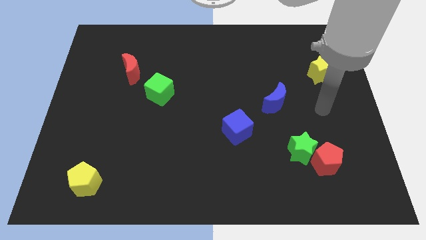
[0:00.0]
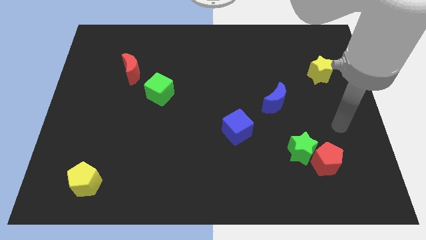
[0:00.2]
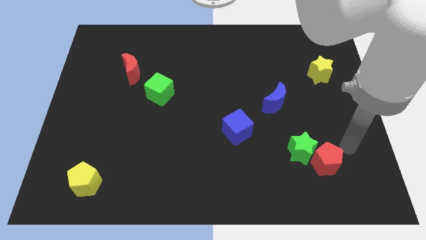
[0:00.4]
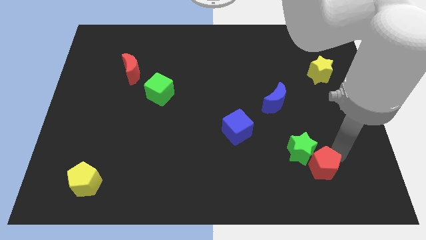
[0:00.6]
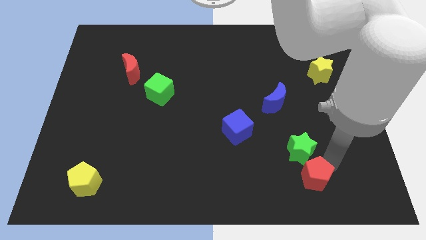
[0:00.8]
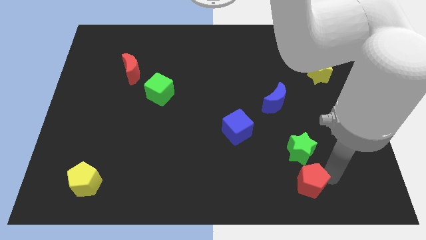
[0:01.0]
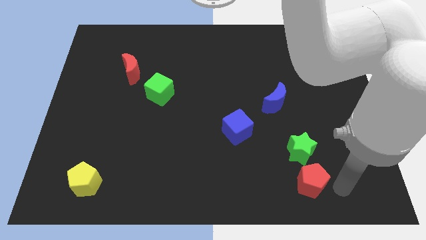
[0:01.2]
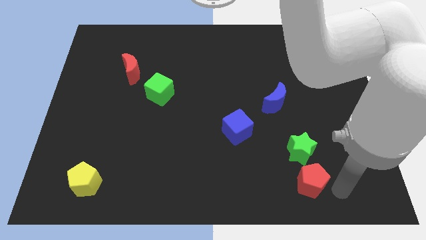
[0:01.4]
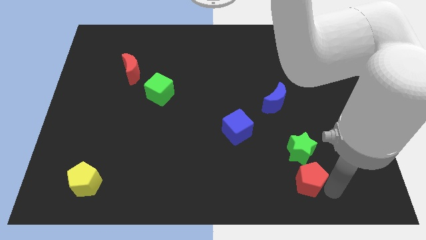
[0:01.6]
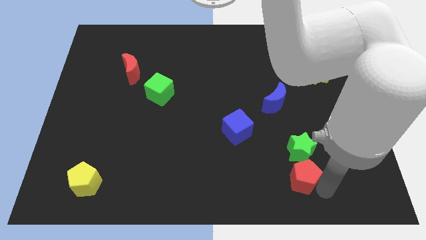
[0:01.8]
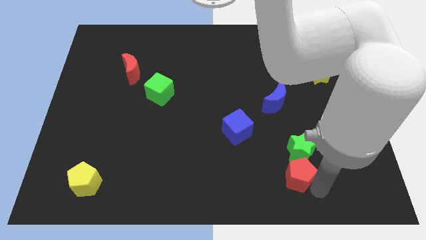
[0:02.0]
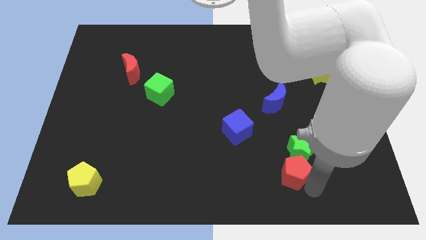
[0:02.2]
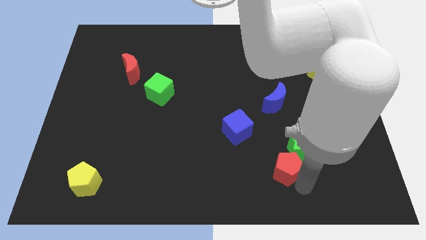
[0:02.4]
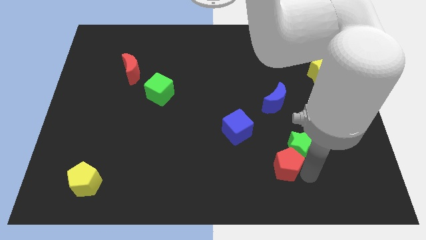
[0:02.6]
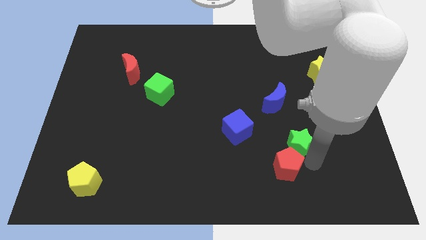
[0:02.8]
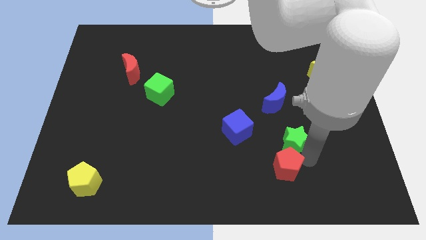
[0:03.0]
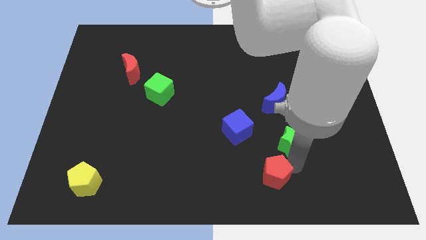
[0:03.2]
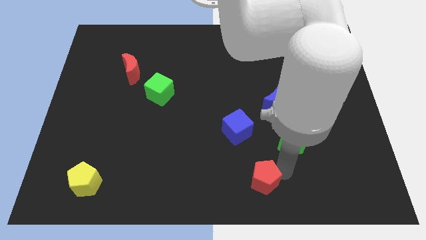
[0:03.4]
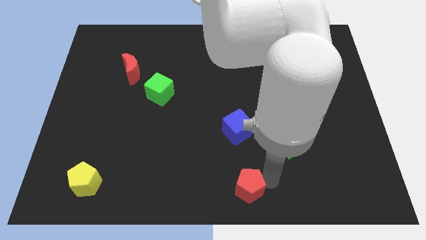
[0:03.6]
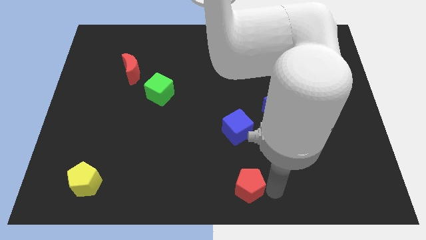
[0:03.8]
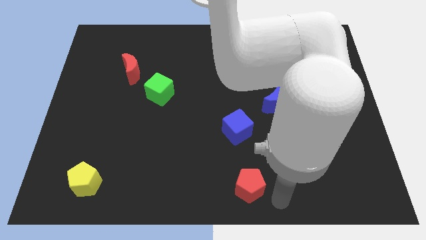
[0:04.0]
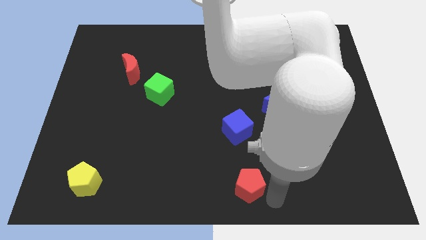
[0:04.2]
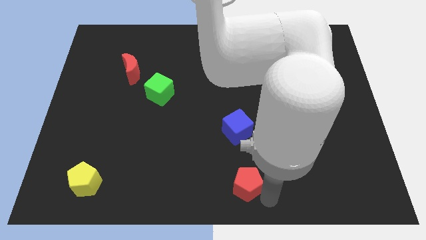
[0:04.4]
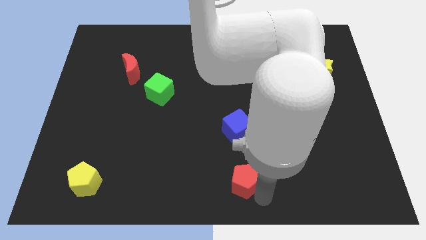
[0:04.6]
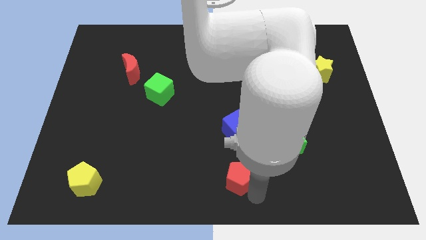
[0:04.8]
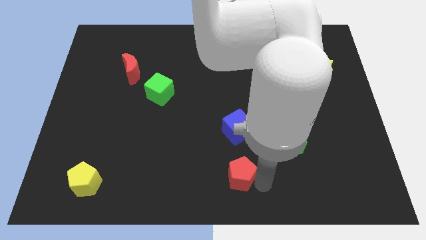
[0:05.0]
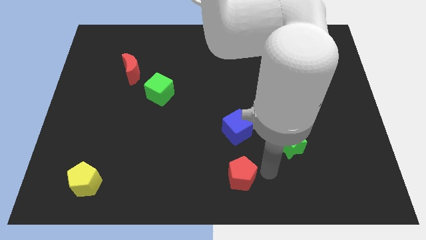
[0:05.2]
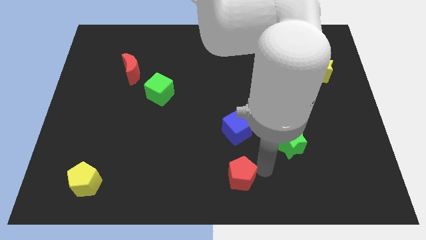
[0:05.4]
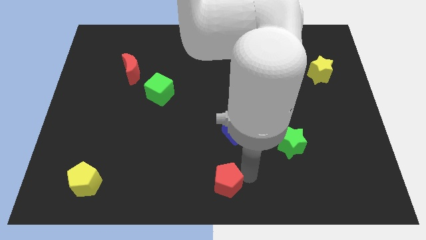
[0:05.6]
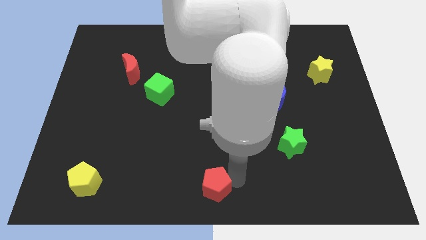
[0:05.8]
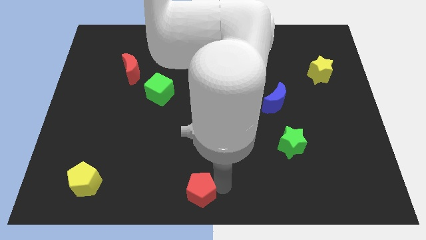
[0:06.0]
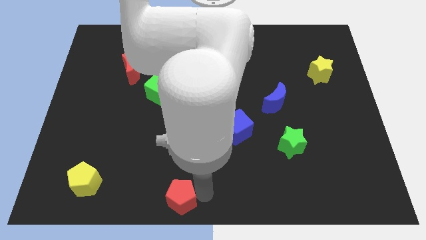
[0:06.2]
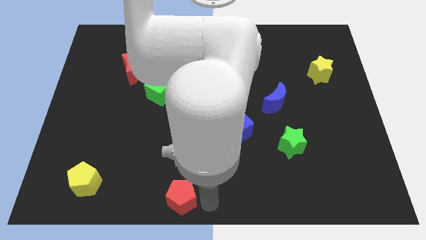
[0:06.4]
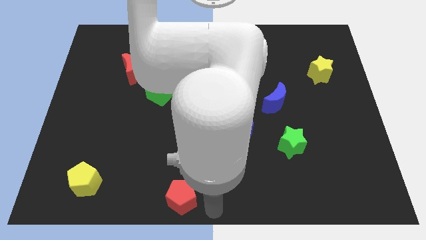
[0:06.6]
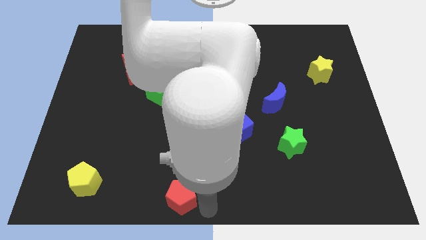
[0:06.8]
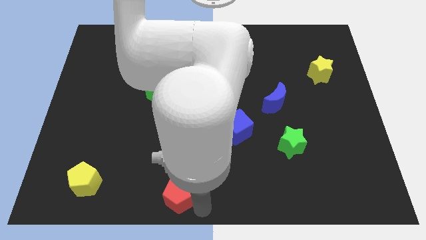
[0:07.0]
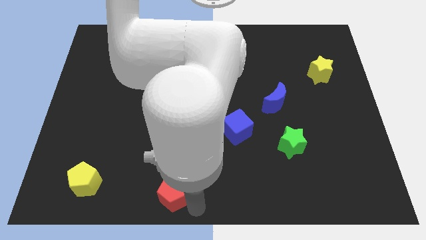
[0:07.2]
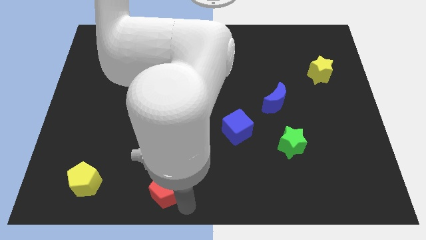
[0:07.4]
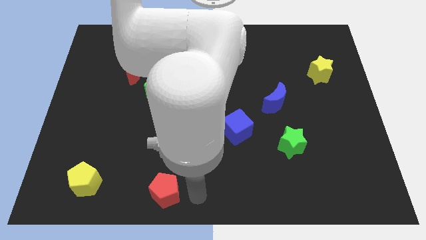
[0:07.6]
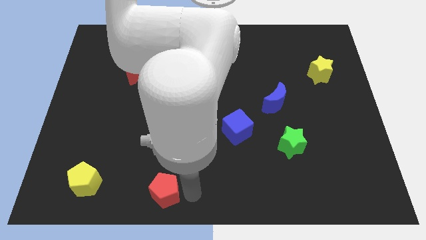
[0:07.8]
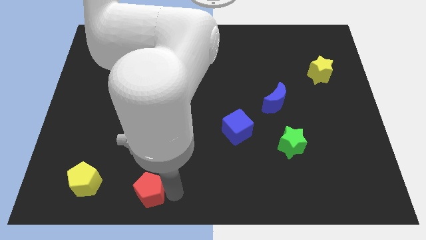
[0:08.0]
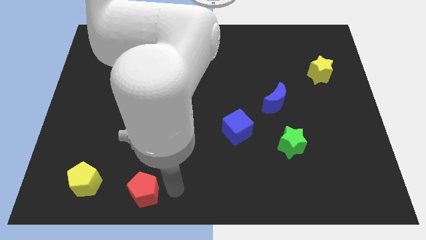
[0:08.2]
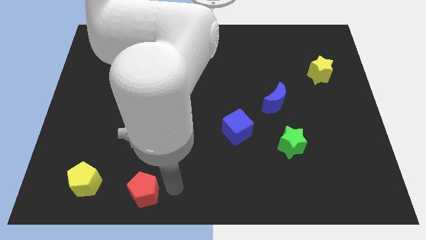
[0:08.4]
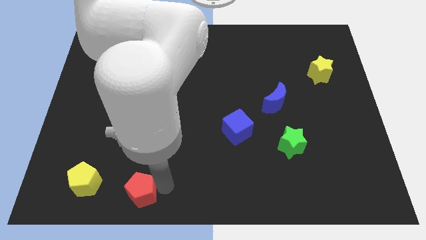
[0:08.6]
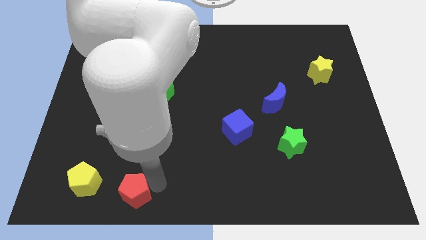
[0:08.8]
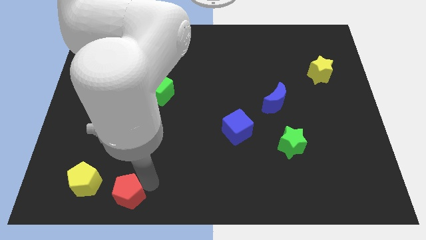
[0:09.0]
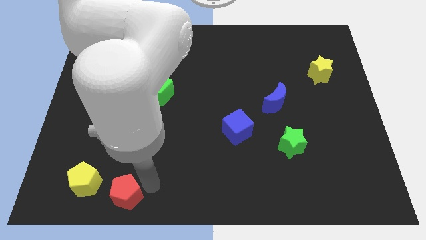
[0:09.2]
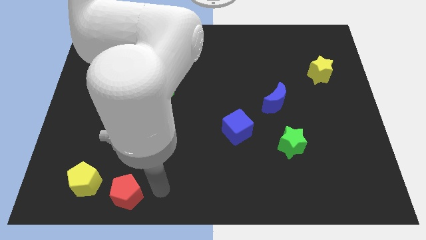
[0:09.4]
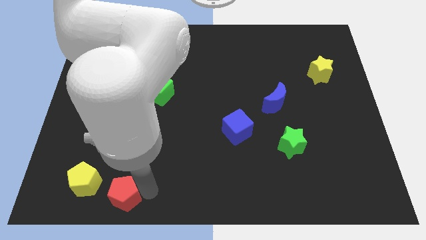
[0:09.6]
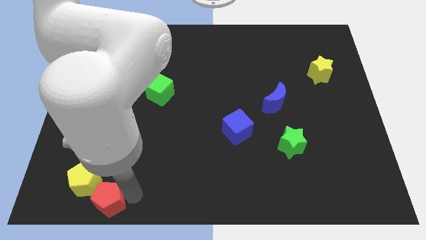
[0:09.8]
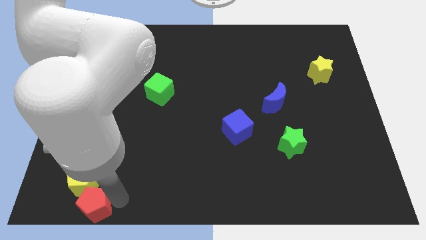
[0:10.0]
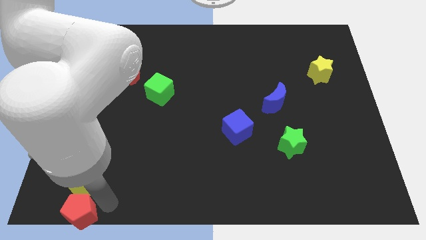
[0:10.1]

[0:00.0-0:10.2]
put the red pentagon to the bottom left

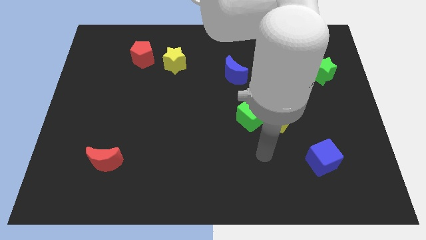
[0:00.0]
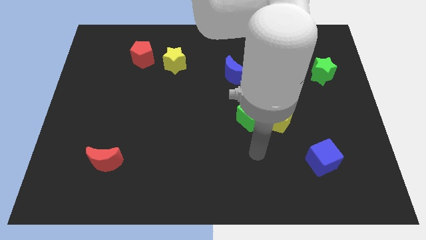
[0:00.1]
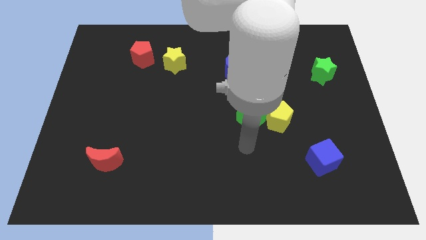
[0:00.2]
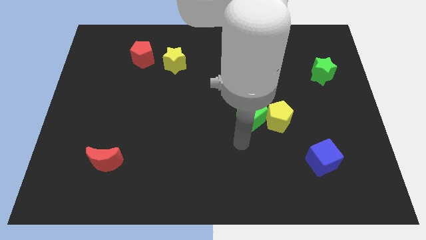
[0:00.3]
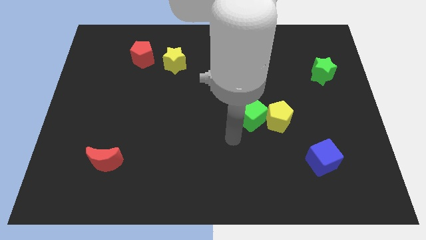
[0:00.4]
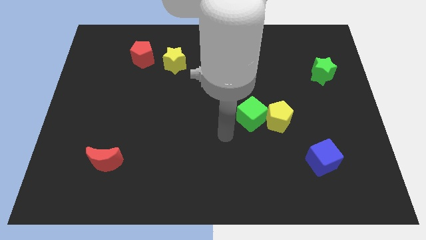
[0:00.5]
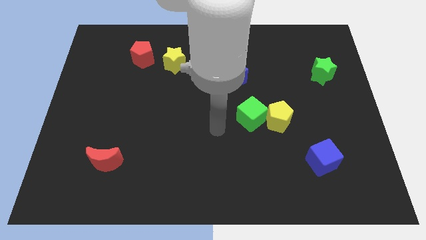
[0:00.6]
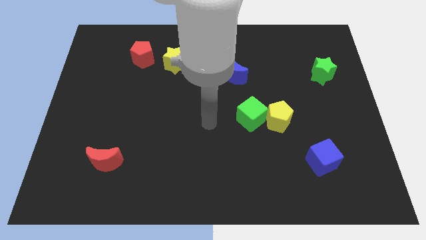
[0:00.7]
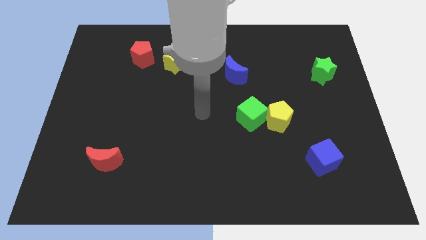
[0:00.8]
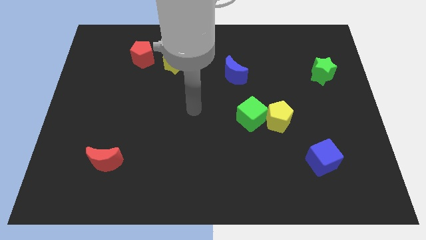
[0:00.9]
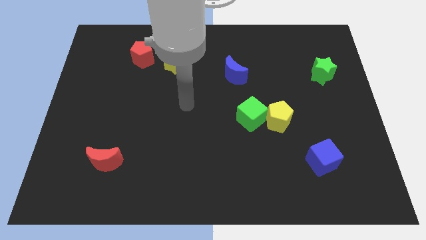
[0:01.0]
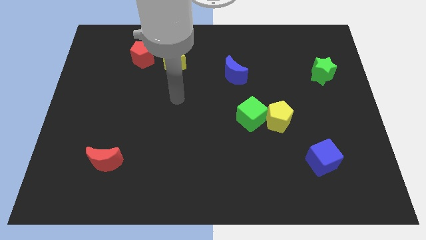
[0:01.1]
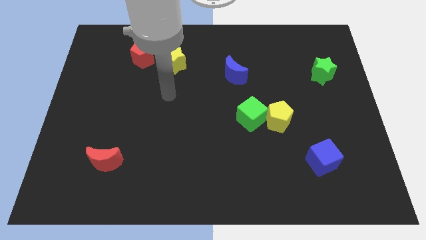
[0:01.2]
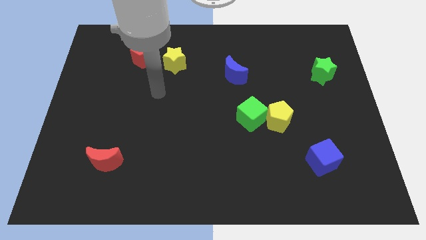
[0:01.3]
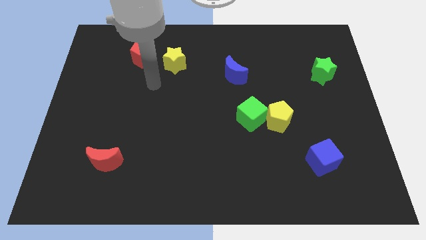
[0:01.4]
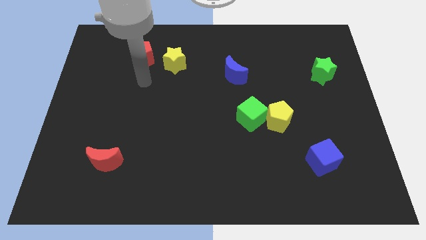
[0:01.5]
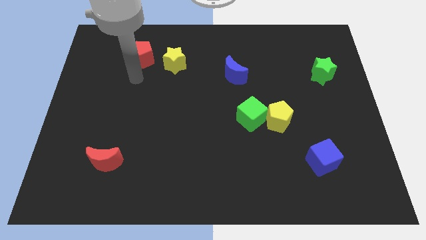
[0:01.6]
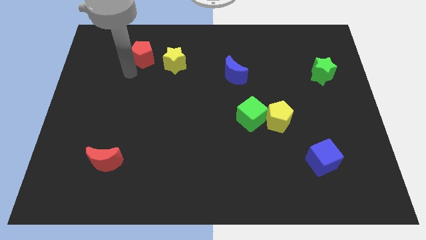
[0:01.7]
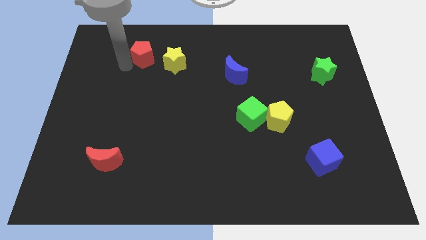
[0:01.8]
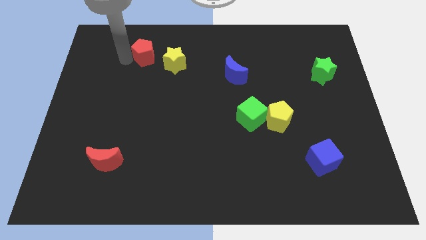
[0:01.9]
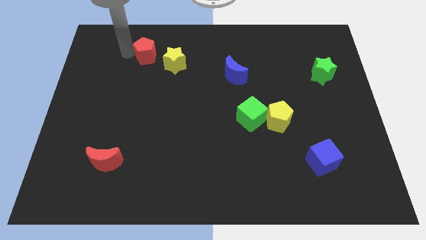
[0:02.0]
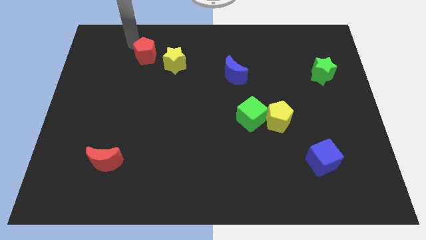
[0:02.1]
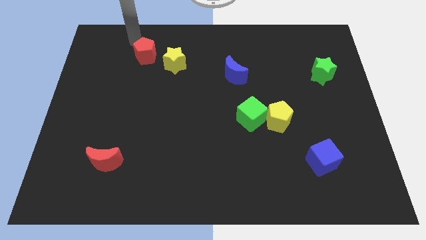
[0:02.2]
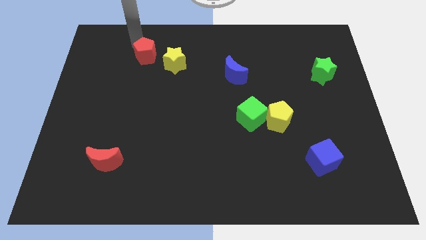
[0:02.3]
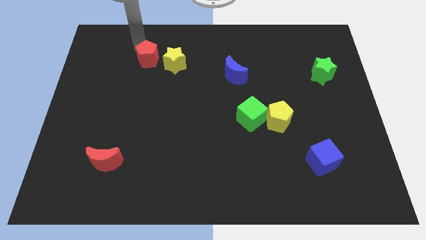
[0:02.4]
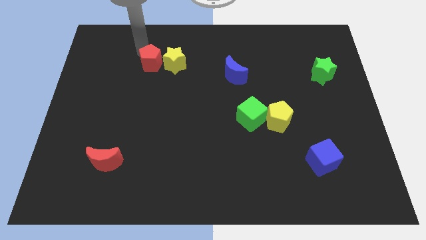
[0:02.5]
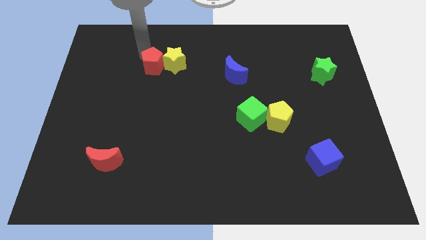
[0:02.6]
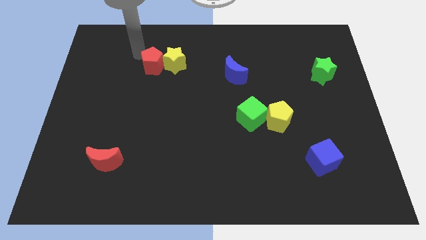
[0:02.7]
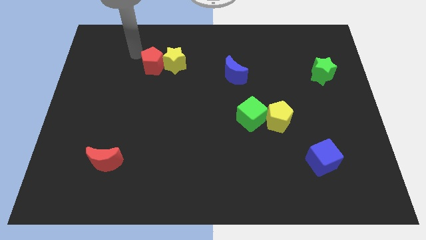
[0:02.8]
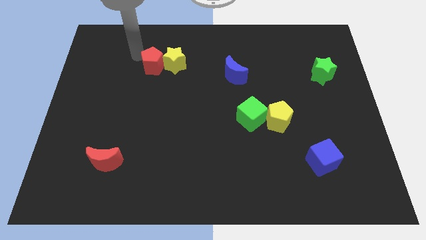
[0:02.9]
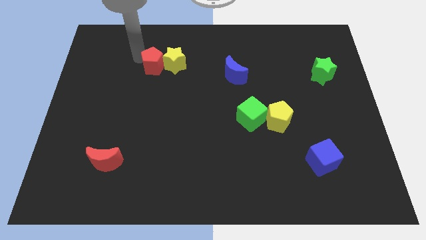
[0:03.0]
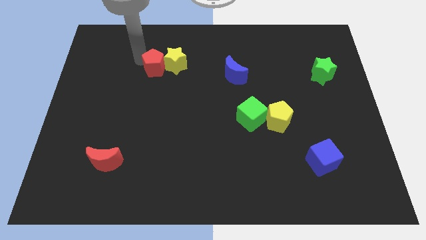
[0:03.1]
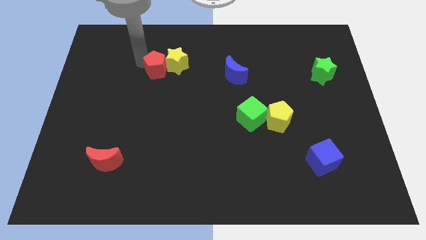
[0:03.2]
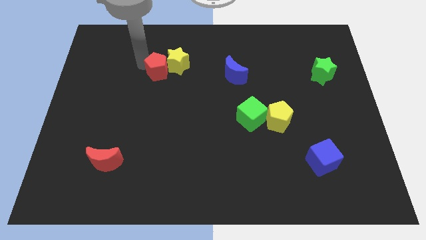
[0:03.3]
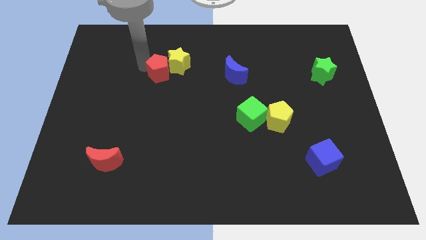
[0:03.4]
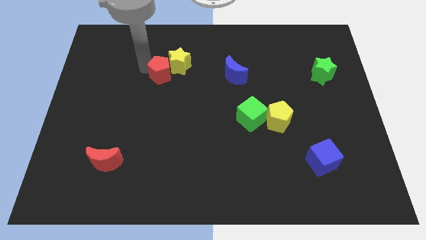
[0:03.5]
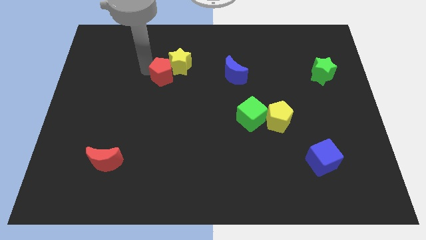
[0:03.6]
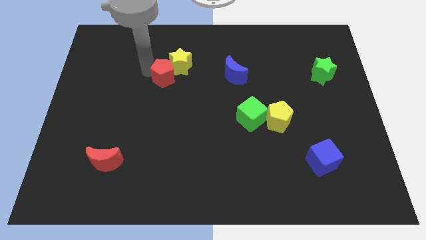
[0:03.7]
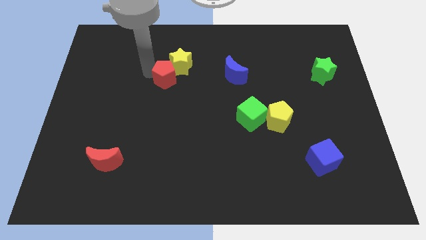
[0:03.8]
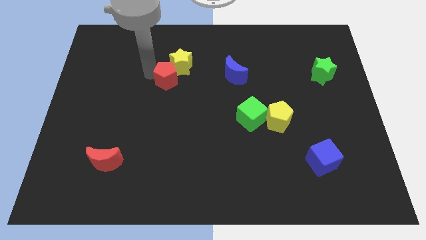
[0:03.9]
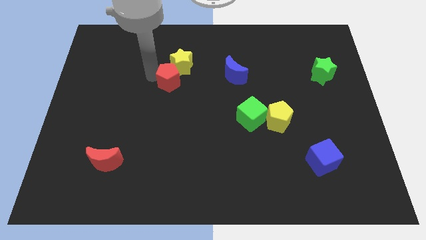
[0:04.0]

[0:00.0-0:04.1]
slide the red pentagon to the center of the board
